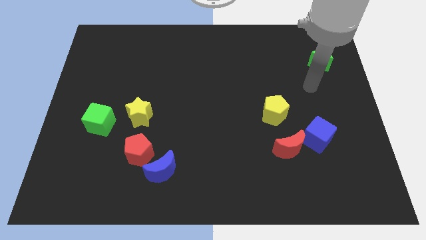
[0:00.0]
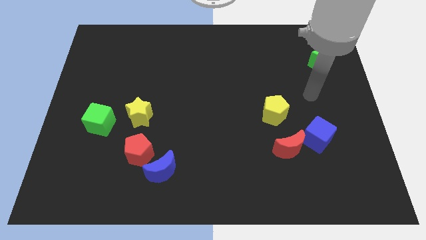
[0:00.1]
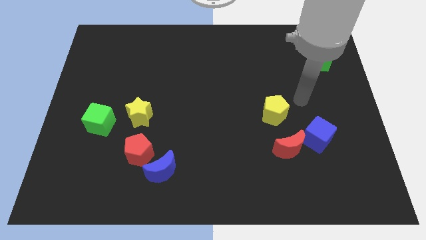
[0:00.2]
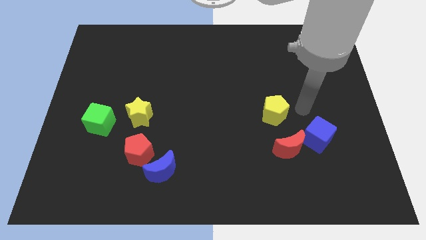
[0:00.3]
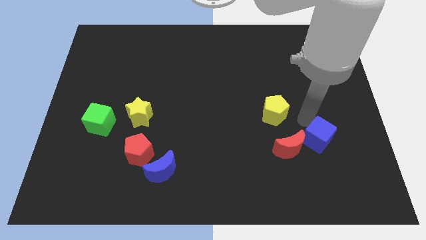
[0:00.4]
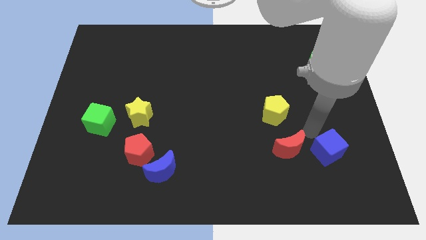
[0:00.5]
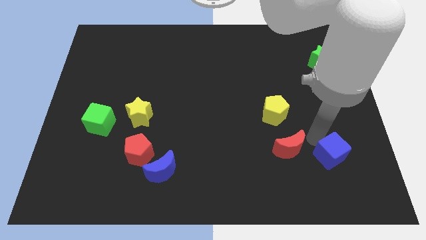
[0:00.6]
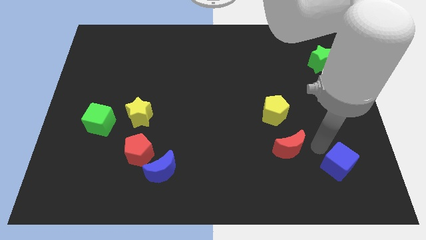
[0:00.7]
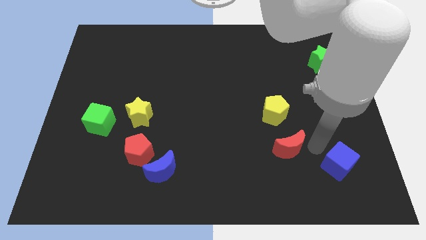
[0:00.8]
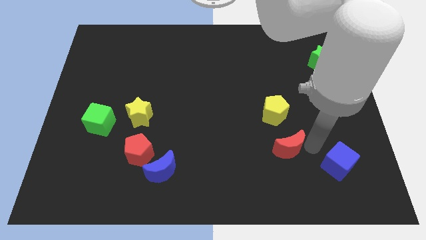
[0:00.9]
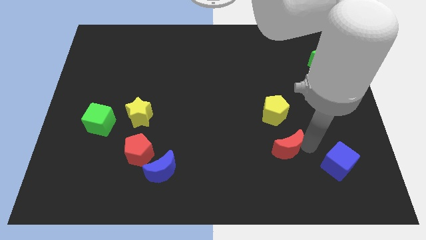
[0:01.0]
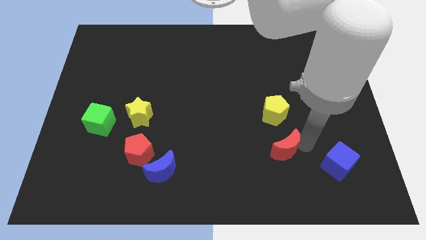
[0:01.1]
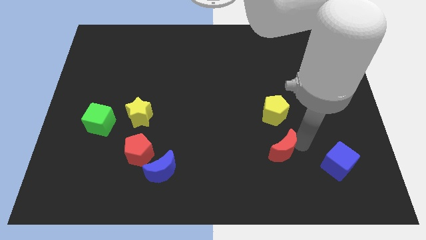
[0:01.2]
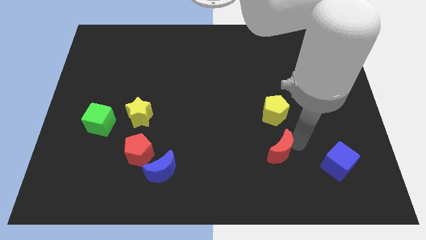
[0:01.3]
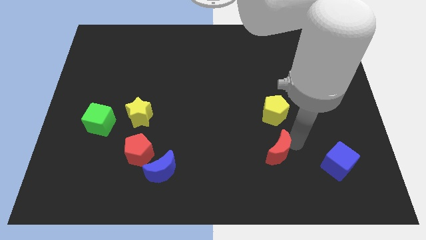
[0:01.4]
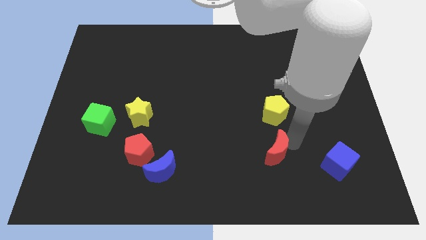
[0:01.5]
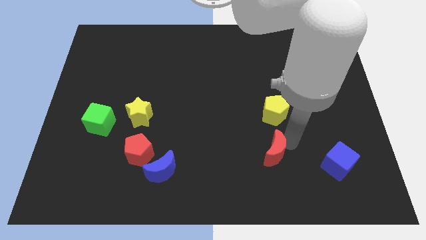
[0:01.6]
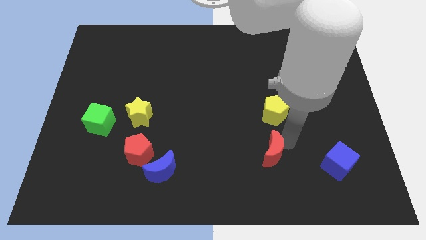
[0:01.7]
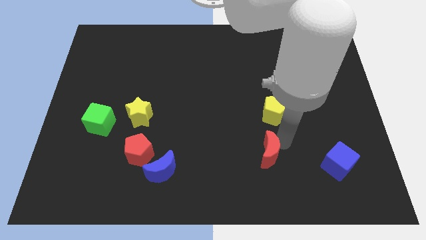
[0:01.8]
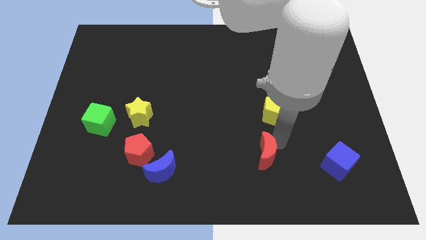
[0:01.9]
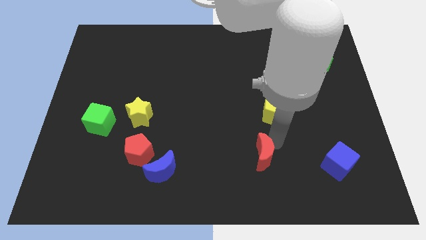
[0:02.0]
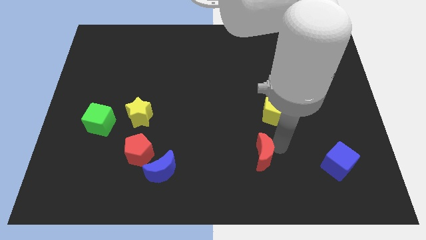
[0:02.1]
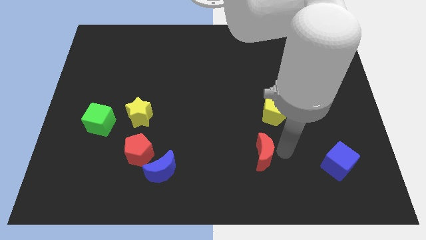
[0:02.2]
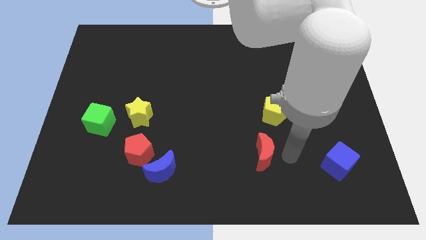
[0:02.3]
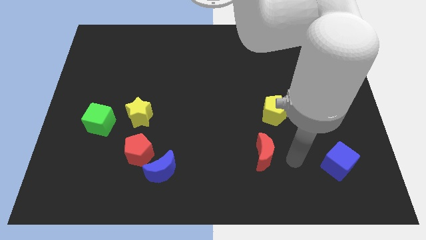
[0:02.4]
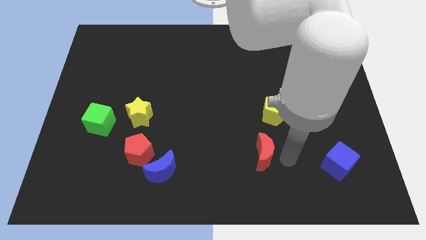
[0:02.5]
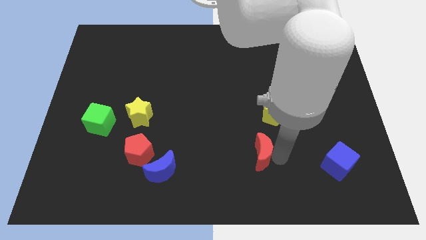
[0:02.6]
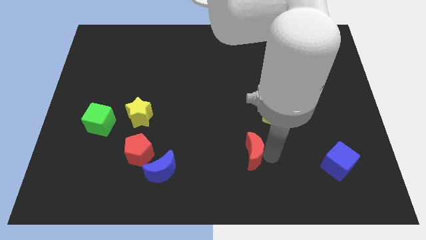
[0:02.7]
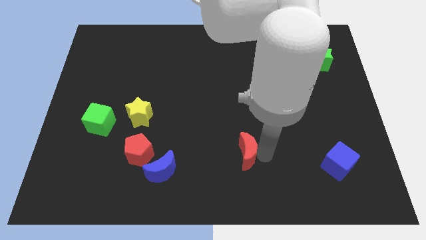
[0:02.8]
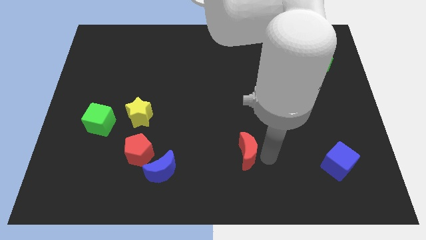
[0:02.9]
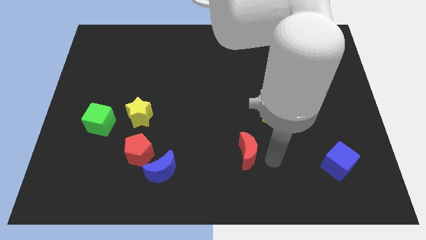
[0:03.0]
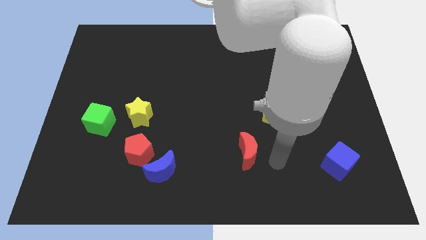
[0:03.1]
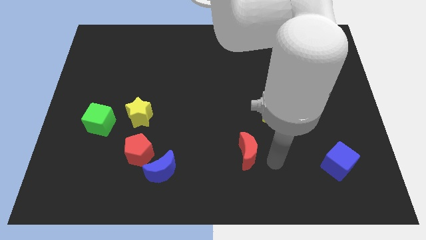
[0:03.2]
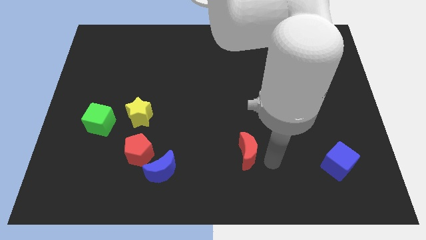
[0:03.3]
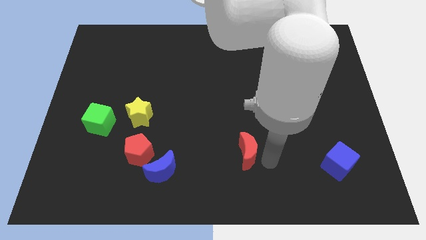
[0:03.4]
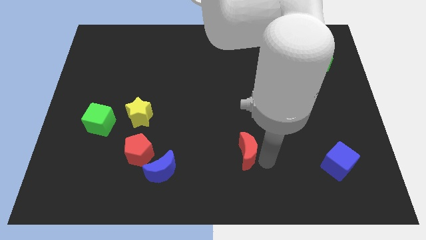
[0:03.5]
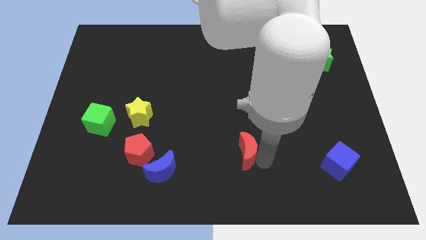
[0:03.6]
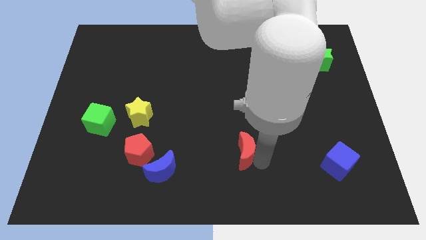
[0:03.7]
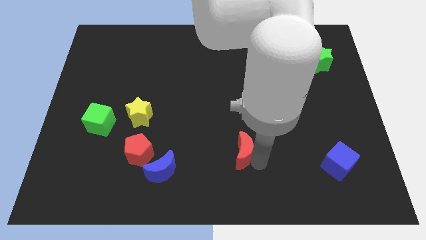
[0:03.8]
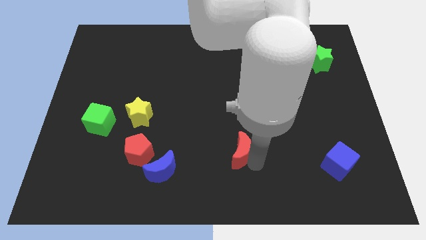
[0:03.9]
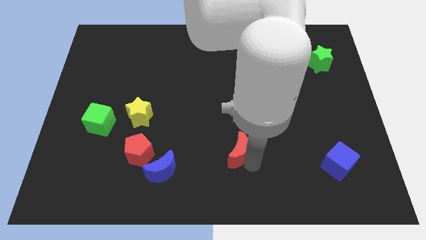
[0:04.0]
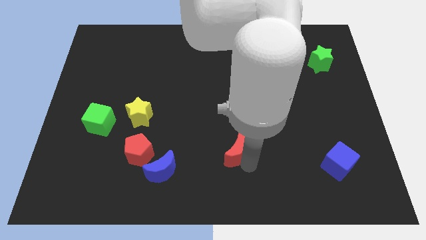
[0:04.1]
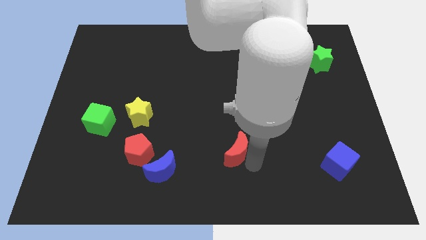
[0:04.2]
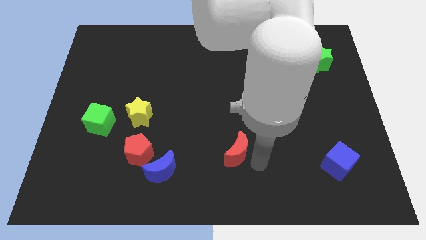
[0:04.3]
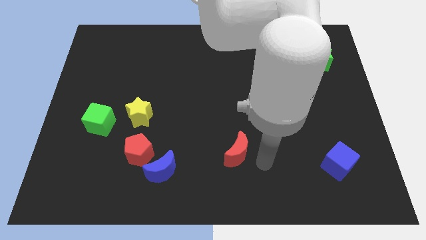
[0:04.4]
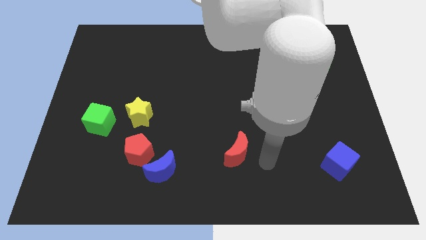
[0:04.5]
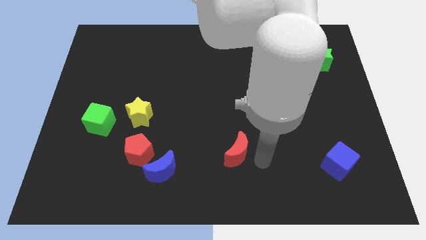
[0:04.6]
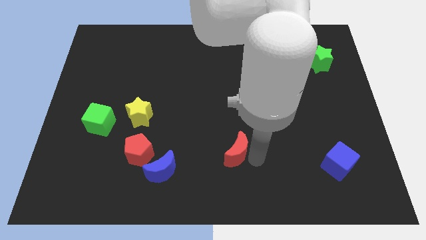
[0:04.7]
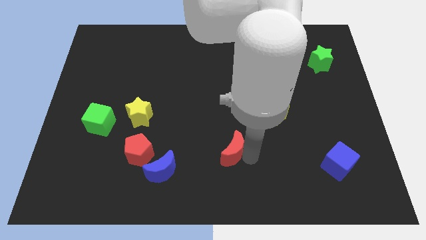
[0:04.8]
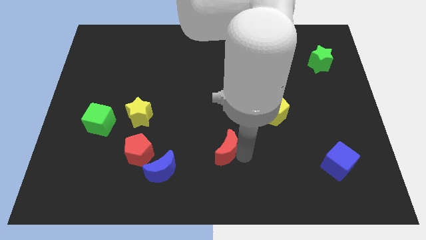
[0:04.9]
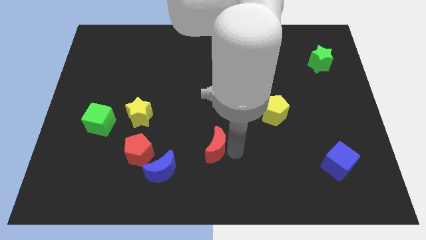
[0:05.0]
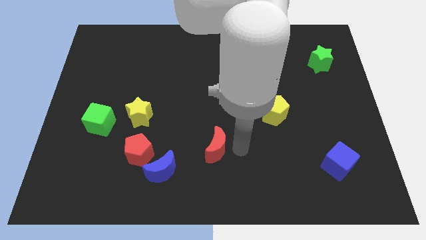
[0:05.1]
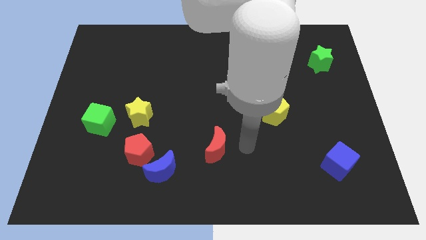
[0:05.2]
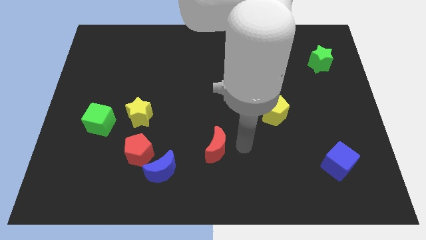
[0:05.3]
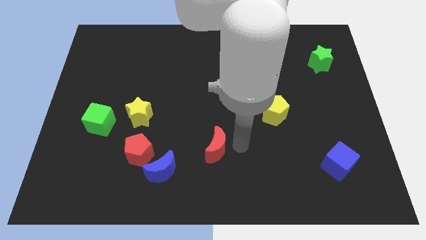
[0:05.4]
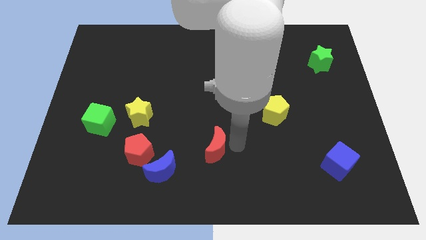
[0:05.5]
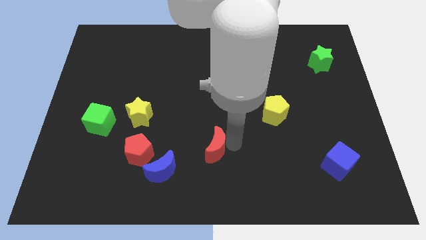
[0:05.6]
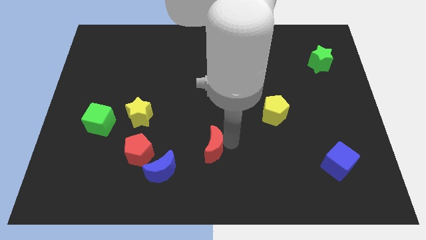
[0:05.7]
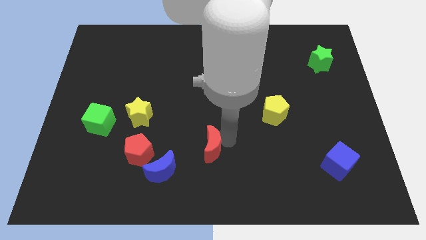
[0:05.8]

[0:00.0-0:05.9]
slide the red moon to the top right side of the blue moon

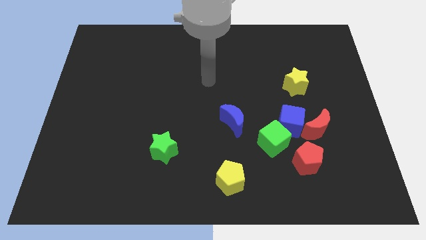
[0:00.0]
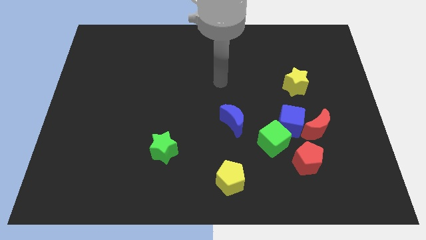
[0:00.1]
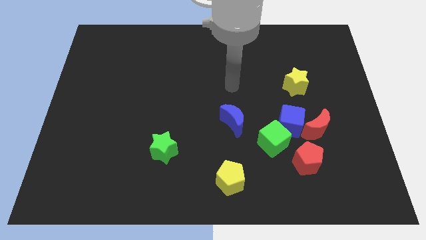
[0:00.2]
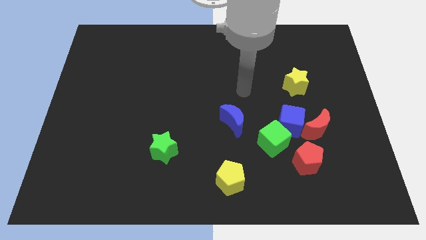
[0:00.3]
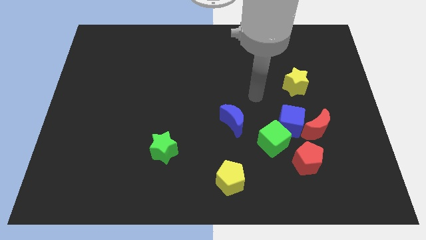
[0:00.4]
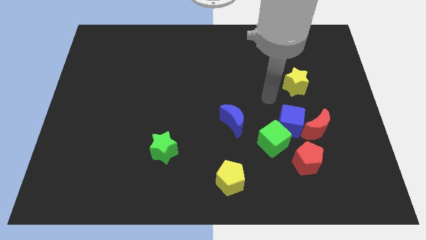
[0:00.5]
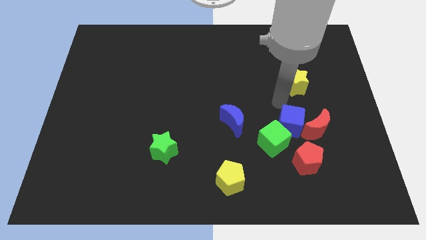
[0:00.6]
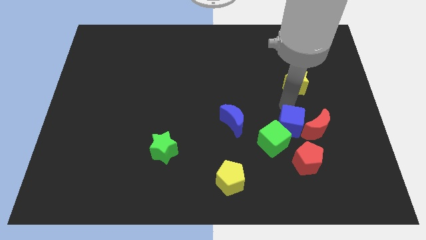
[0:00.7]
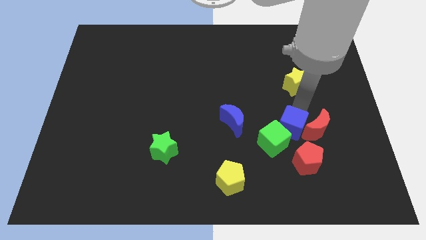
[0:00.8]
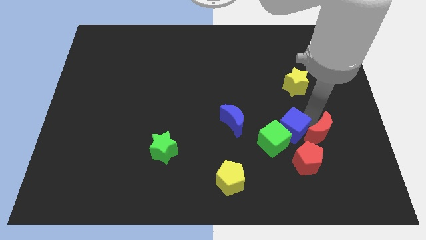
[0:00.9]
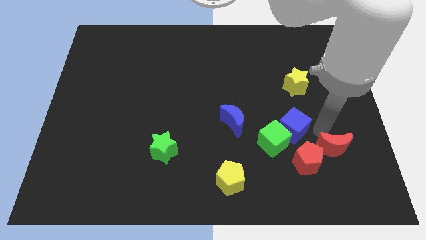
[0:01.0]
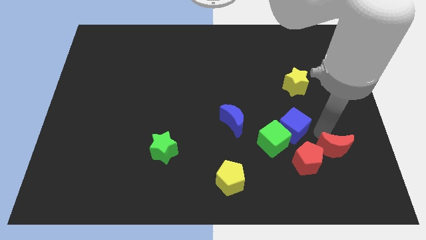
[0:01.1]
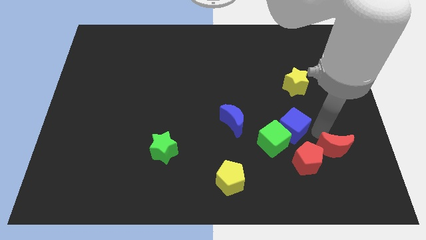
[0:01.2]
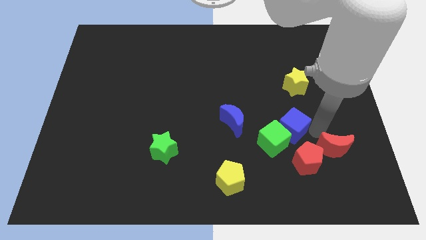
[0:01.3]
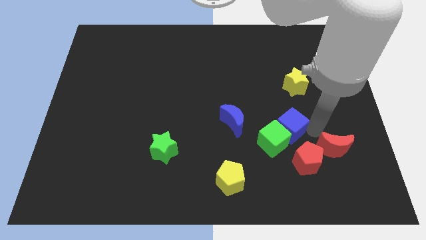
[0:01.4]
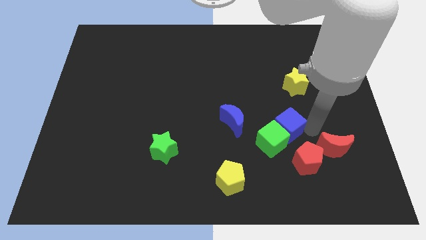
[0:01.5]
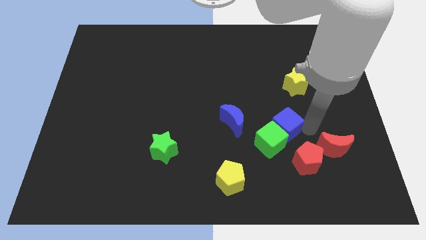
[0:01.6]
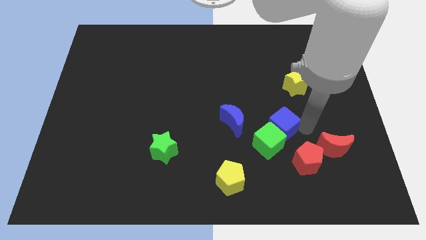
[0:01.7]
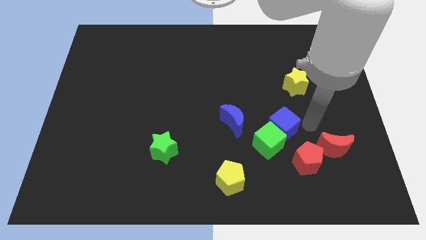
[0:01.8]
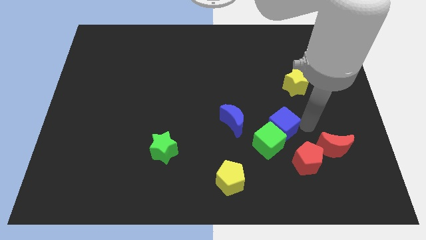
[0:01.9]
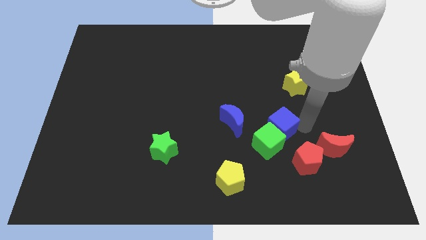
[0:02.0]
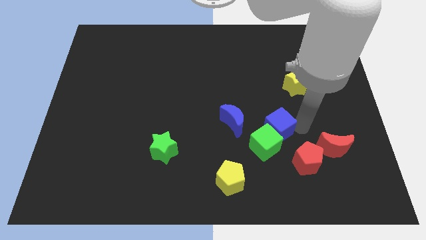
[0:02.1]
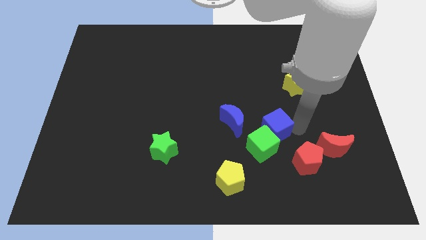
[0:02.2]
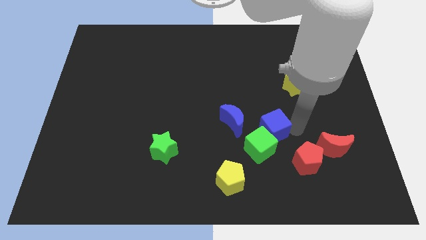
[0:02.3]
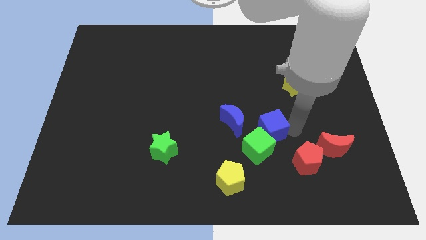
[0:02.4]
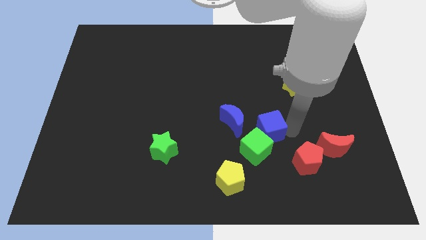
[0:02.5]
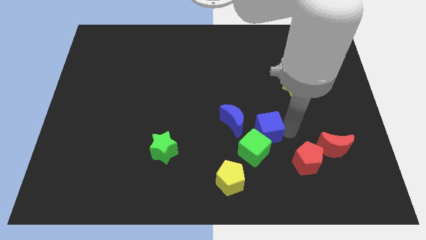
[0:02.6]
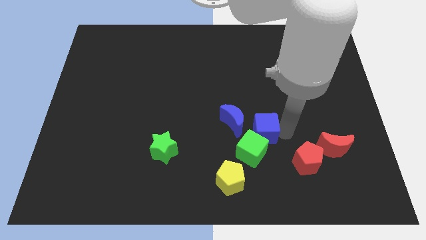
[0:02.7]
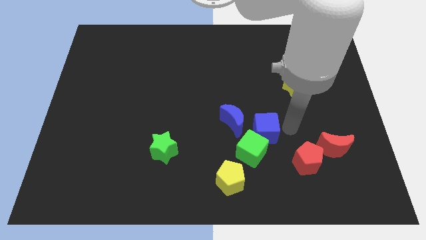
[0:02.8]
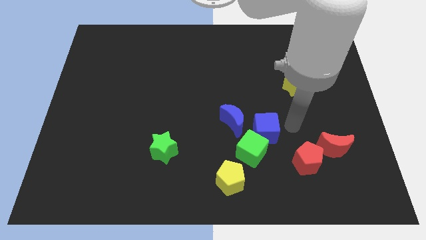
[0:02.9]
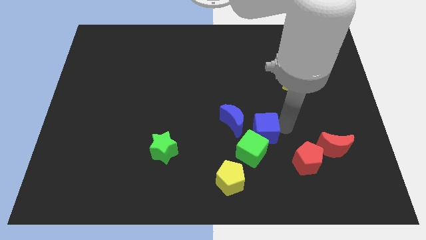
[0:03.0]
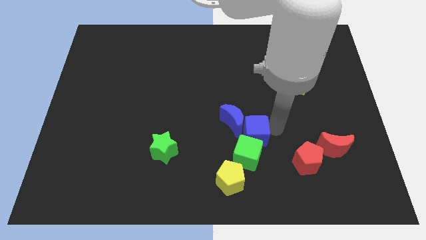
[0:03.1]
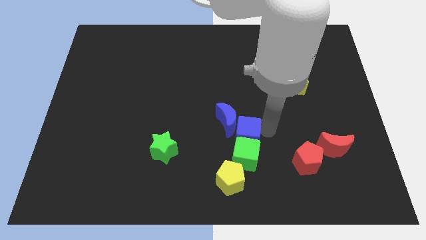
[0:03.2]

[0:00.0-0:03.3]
put the blue cube to the top of the yellow pentagon
